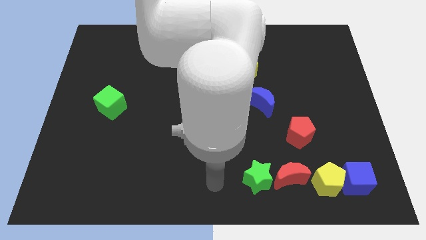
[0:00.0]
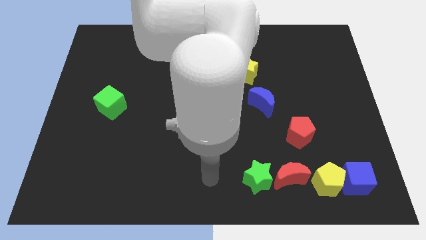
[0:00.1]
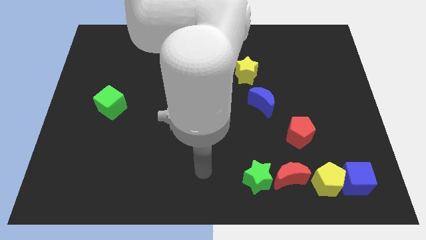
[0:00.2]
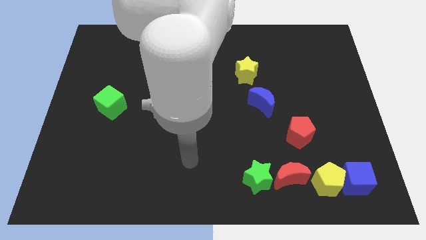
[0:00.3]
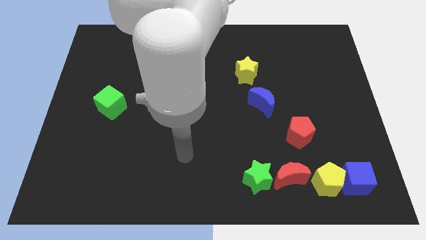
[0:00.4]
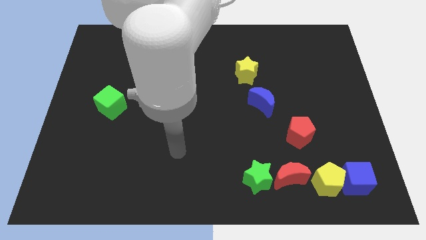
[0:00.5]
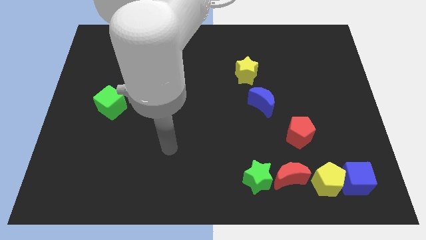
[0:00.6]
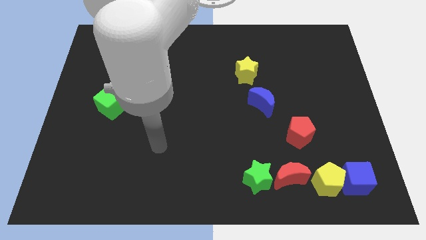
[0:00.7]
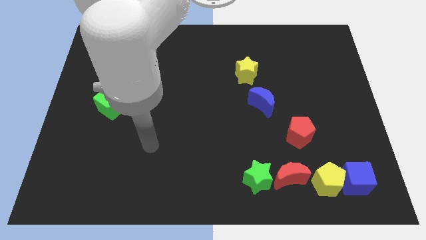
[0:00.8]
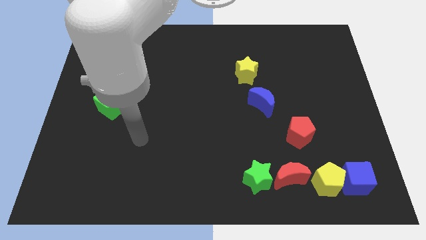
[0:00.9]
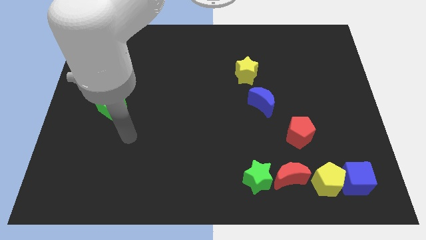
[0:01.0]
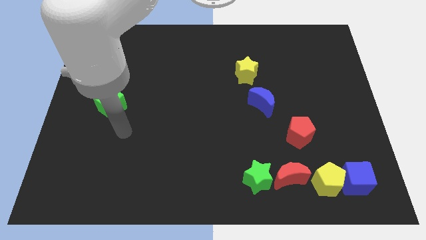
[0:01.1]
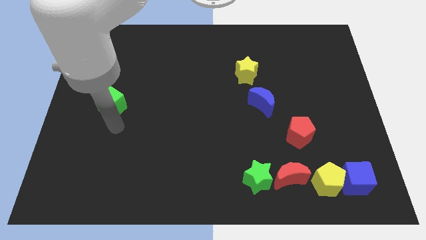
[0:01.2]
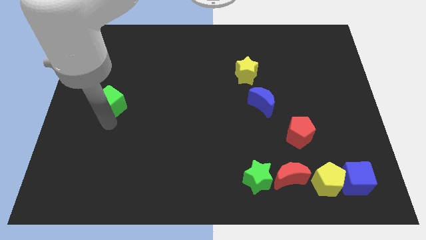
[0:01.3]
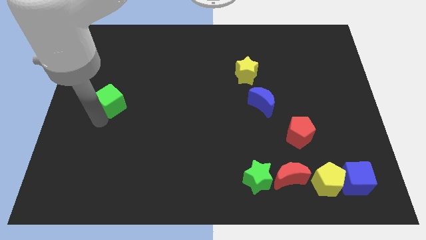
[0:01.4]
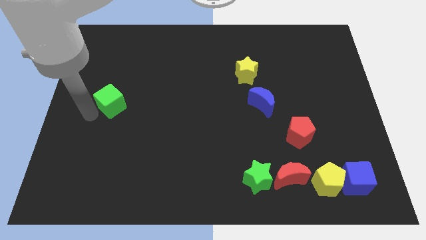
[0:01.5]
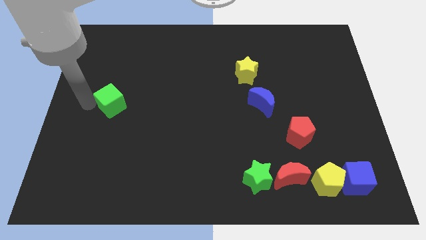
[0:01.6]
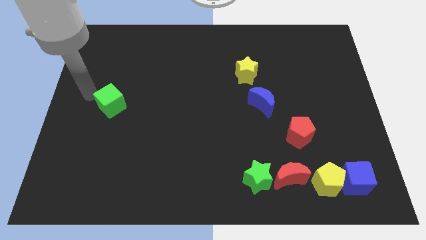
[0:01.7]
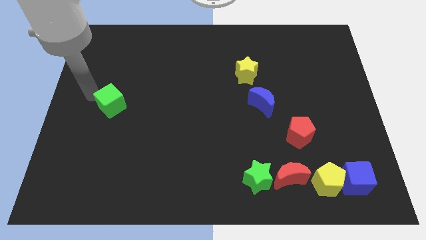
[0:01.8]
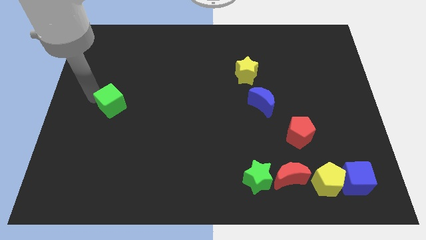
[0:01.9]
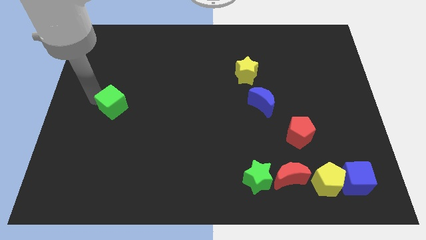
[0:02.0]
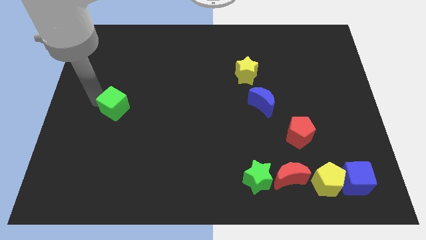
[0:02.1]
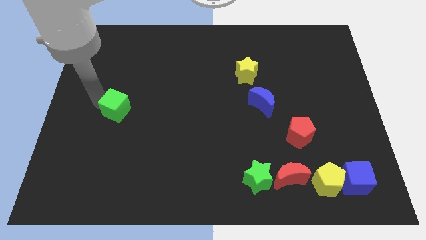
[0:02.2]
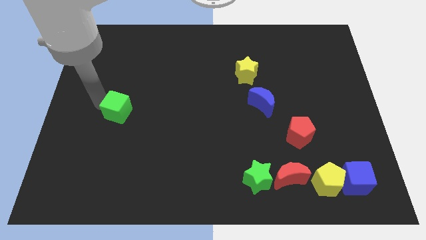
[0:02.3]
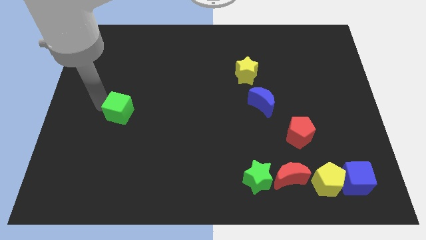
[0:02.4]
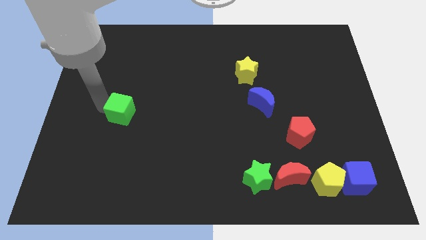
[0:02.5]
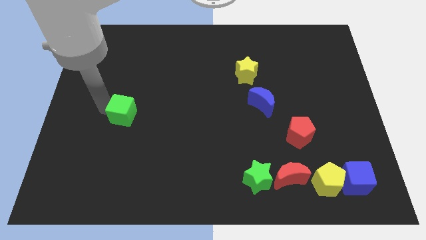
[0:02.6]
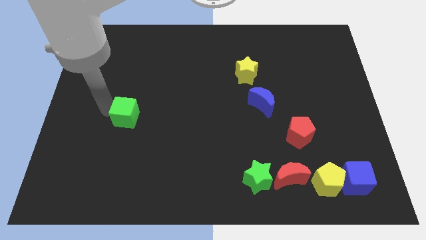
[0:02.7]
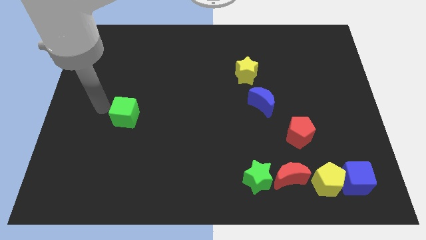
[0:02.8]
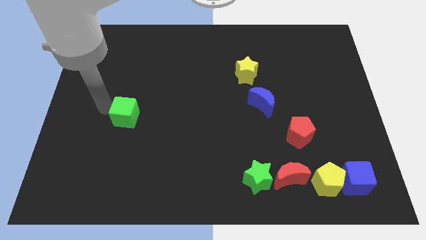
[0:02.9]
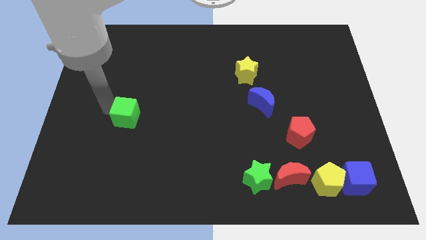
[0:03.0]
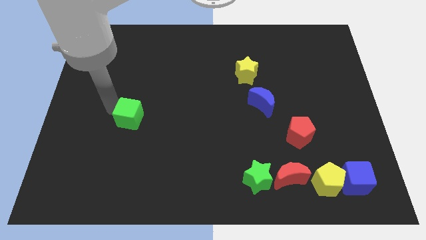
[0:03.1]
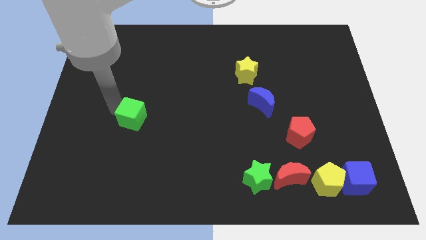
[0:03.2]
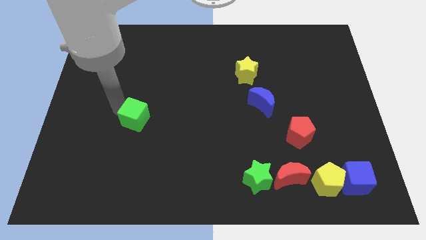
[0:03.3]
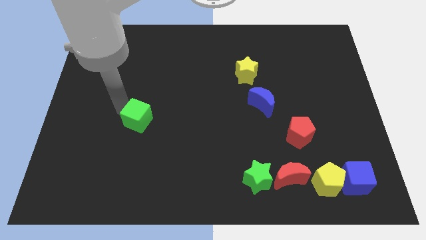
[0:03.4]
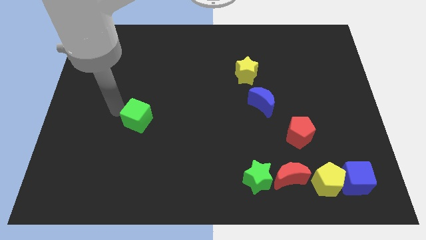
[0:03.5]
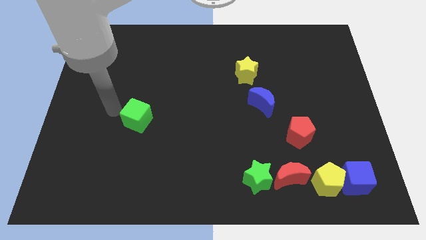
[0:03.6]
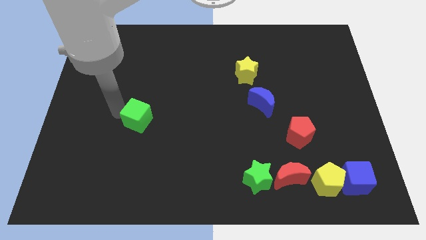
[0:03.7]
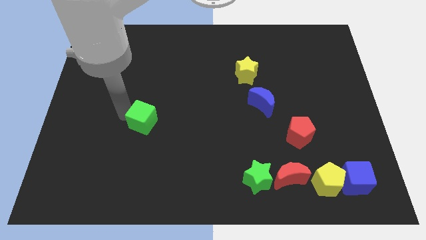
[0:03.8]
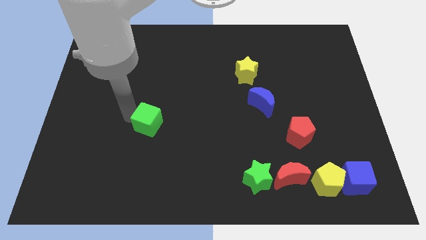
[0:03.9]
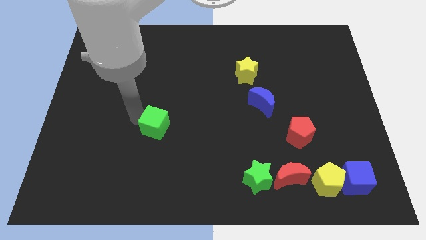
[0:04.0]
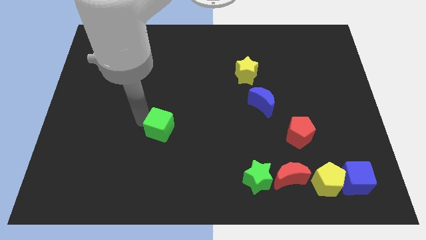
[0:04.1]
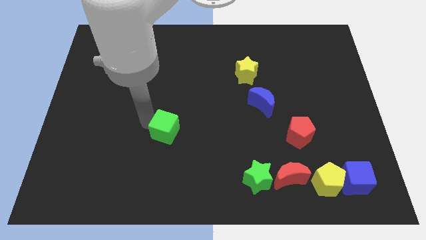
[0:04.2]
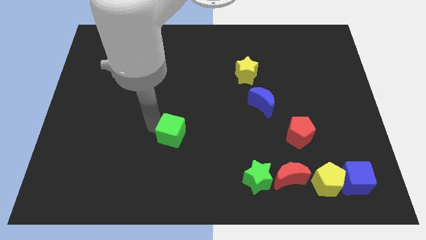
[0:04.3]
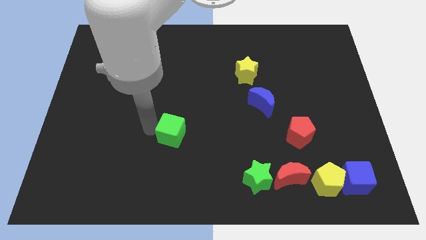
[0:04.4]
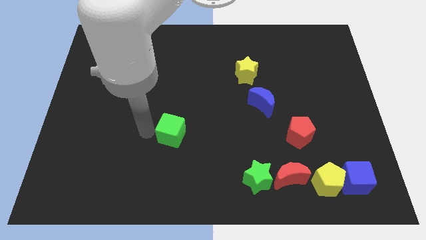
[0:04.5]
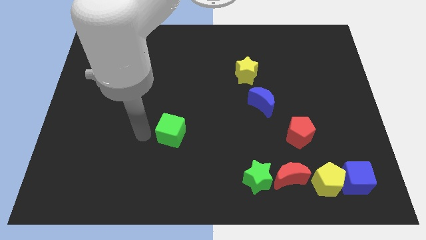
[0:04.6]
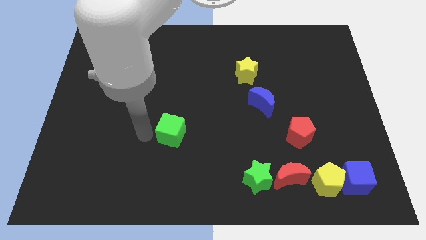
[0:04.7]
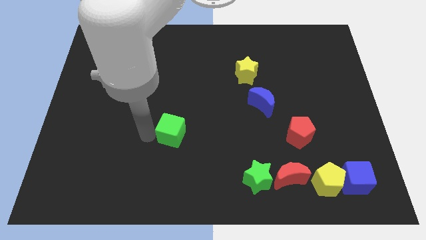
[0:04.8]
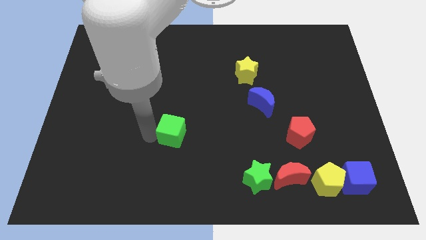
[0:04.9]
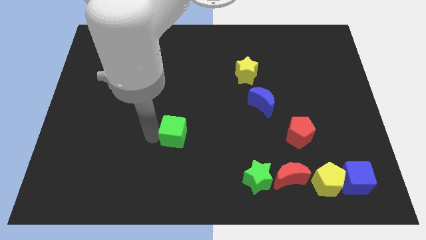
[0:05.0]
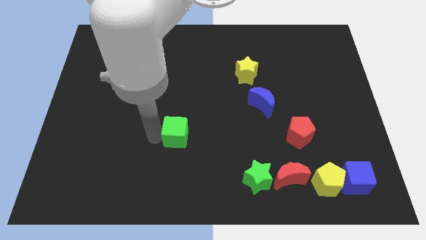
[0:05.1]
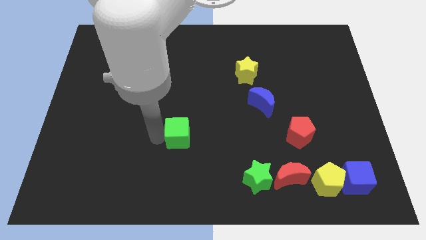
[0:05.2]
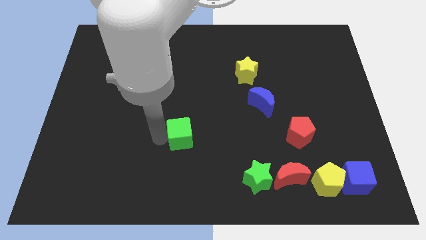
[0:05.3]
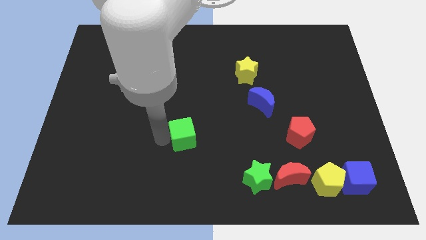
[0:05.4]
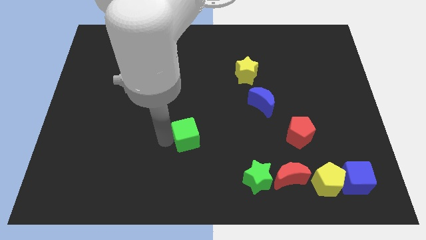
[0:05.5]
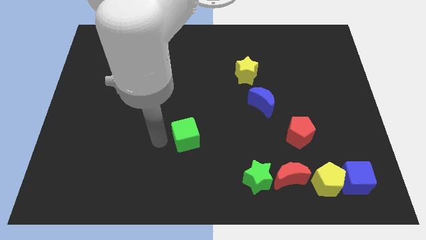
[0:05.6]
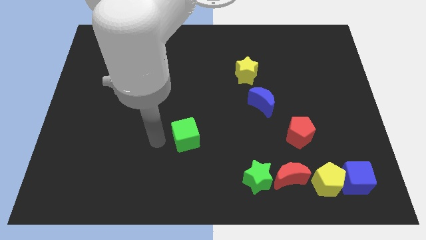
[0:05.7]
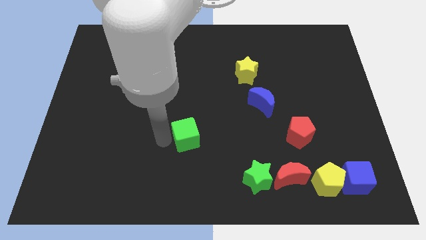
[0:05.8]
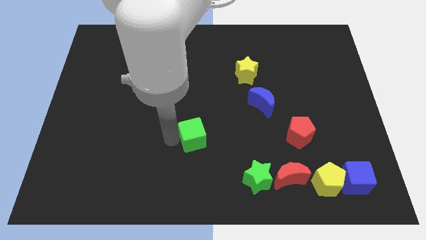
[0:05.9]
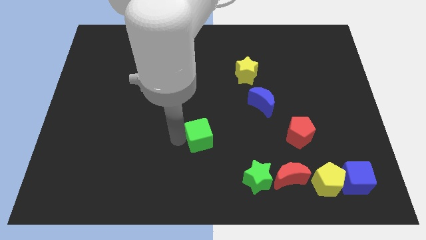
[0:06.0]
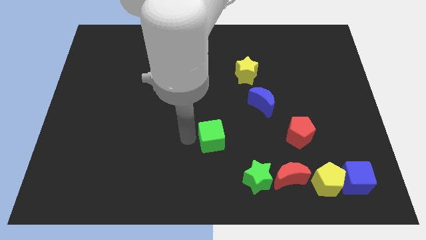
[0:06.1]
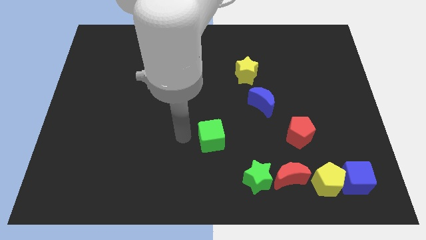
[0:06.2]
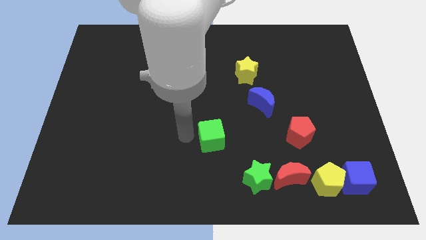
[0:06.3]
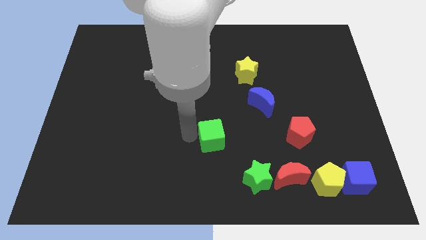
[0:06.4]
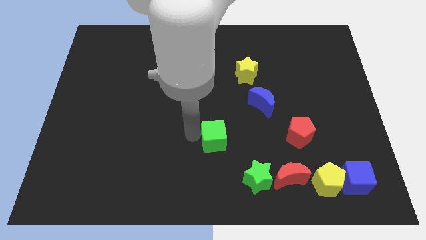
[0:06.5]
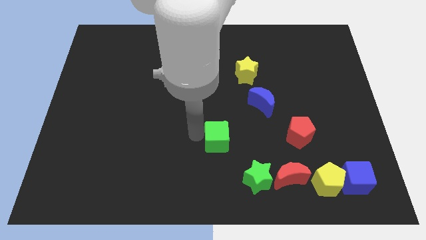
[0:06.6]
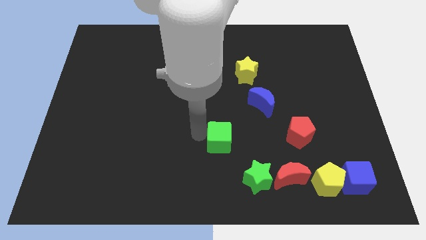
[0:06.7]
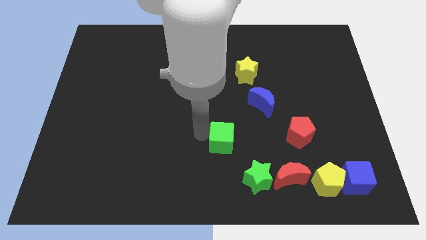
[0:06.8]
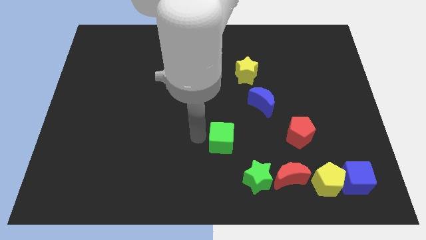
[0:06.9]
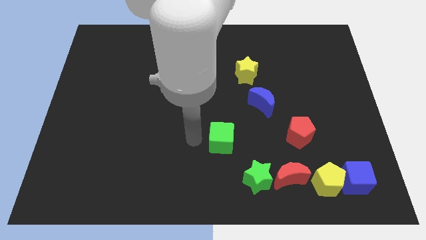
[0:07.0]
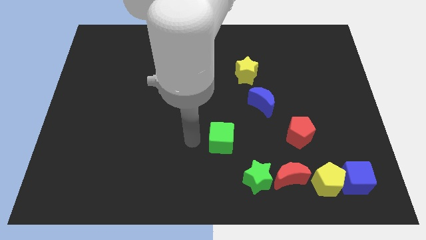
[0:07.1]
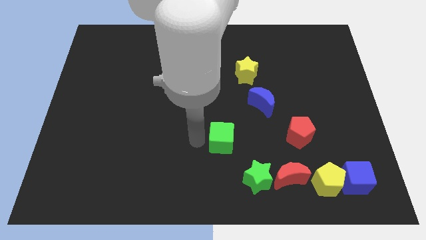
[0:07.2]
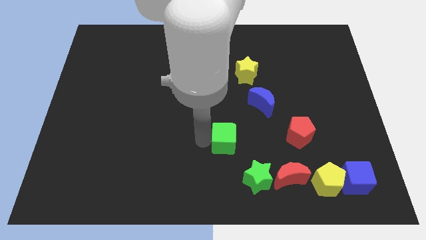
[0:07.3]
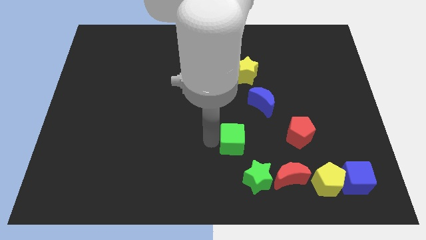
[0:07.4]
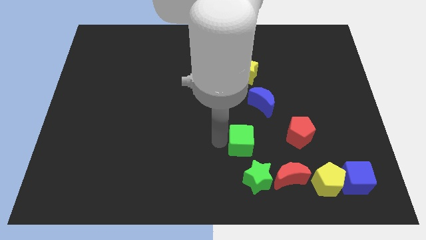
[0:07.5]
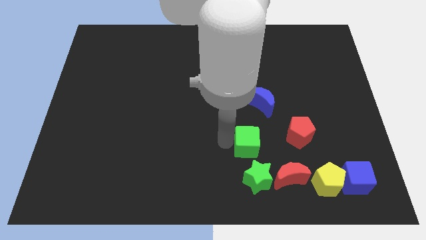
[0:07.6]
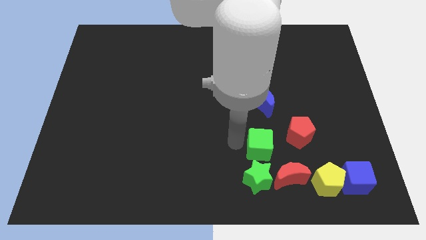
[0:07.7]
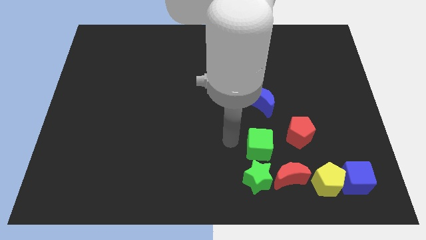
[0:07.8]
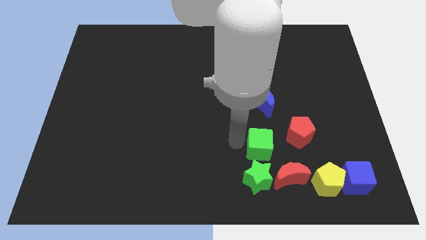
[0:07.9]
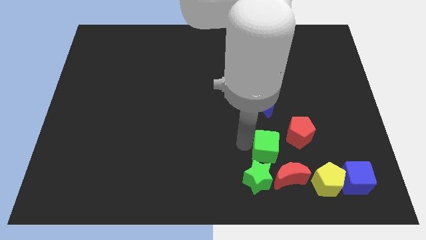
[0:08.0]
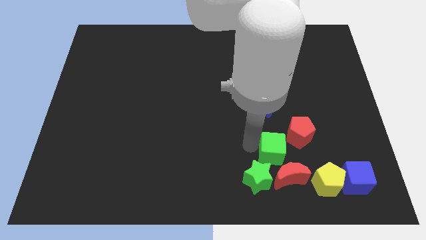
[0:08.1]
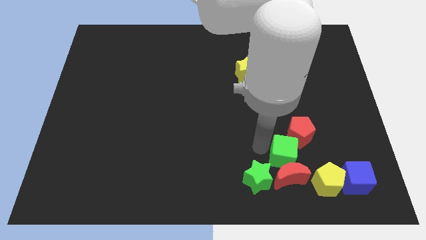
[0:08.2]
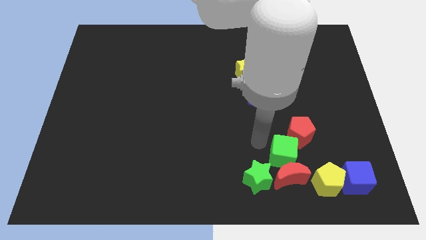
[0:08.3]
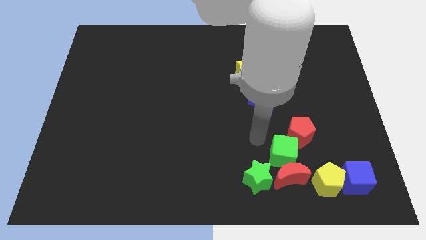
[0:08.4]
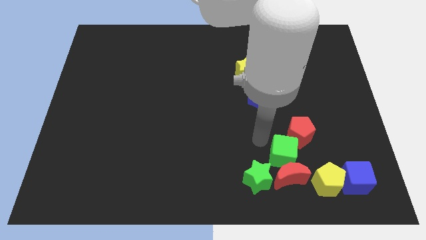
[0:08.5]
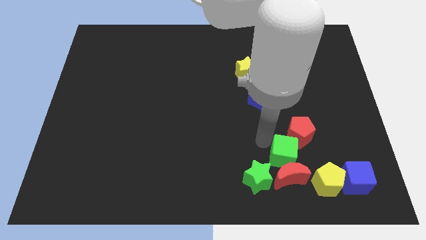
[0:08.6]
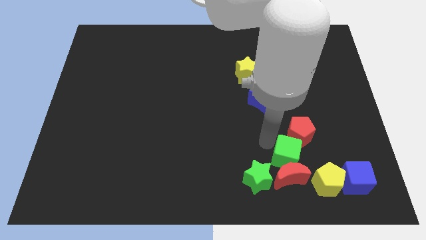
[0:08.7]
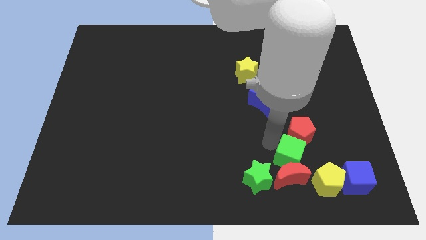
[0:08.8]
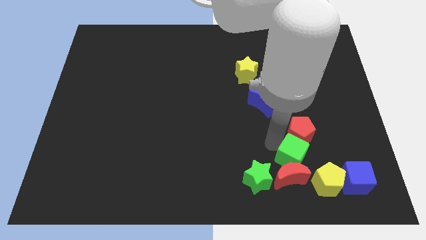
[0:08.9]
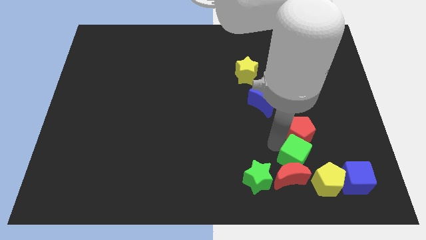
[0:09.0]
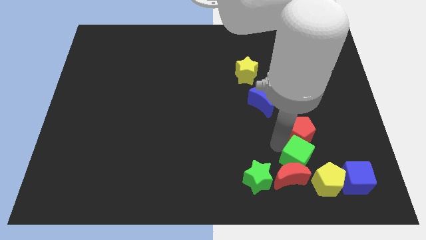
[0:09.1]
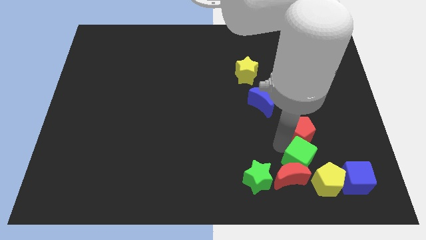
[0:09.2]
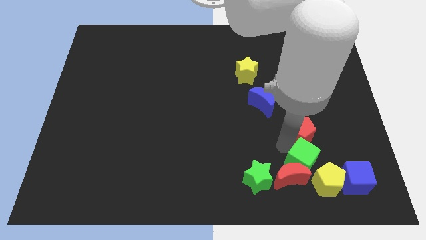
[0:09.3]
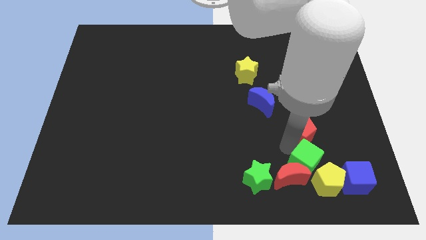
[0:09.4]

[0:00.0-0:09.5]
slide the green cube next to the yellow pentagon
